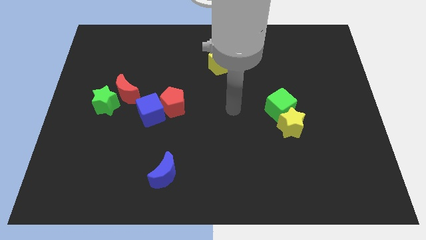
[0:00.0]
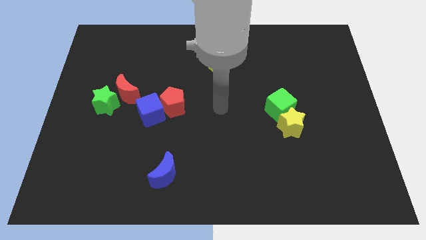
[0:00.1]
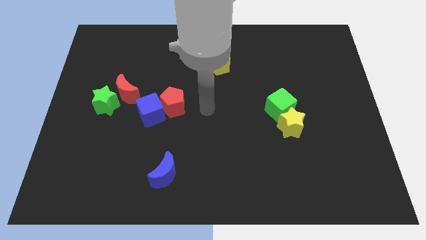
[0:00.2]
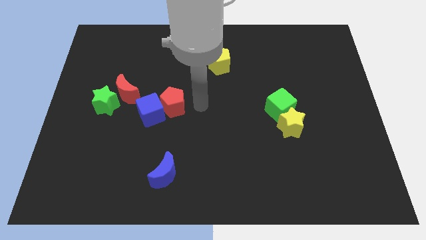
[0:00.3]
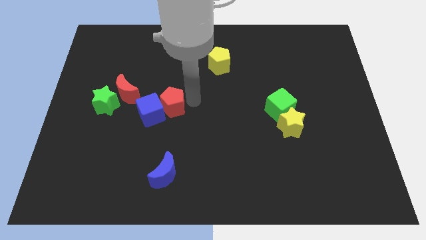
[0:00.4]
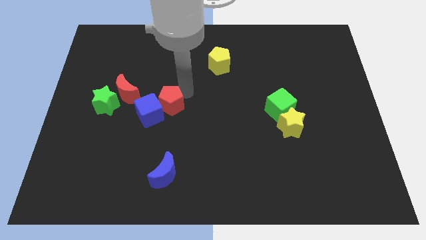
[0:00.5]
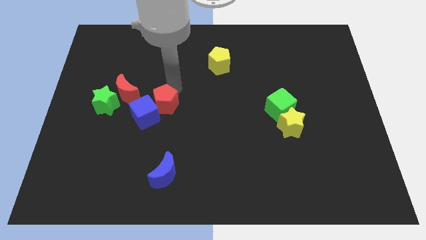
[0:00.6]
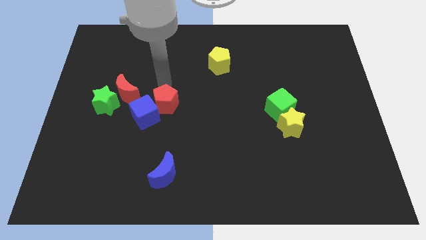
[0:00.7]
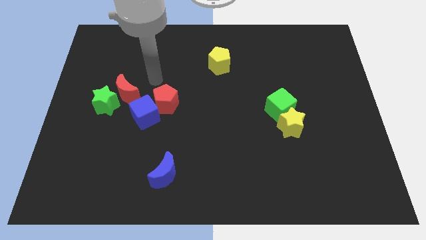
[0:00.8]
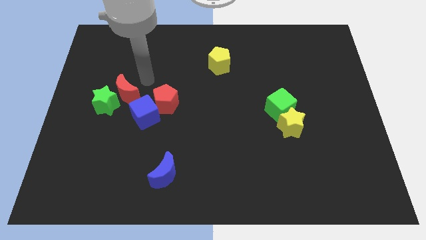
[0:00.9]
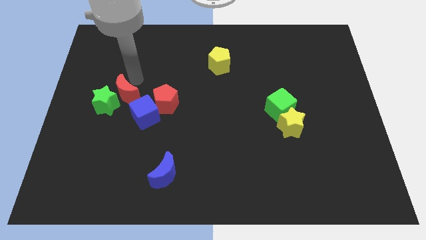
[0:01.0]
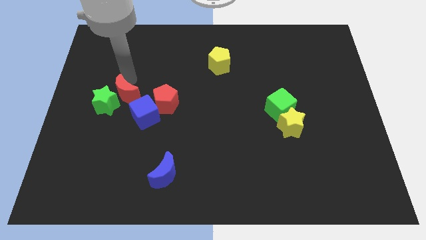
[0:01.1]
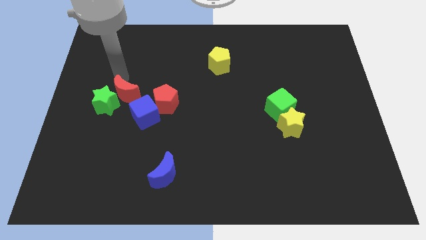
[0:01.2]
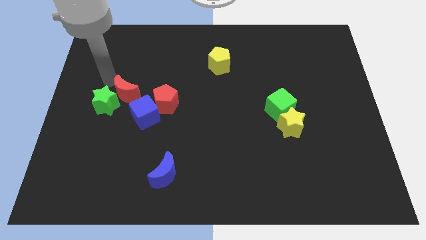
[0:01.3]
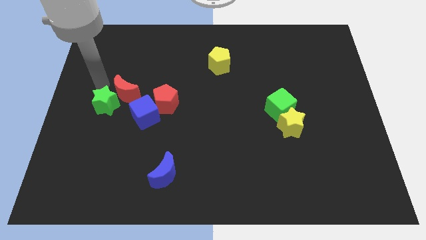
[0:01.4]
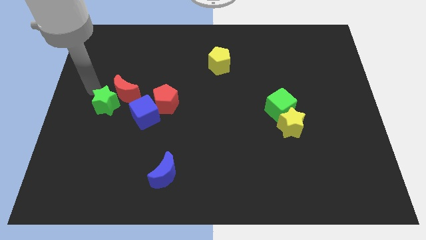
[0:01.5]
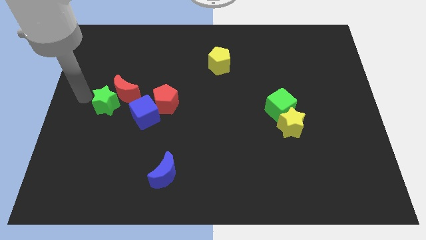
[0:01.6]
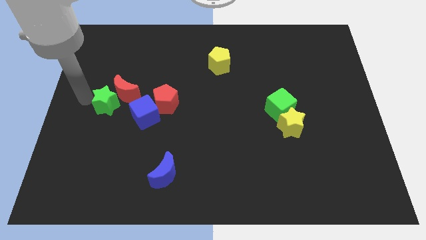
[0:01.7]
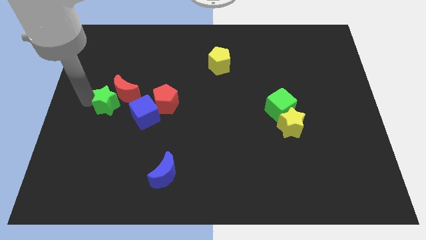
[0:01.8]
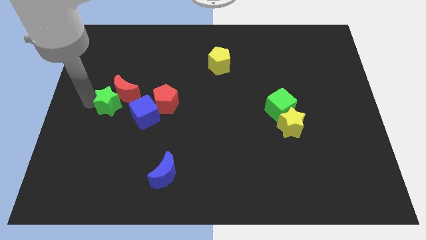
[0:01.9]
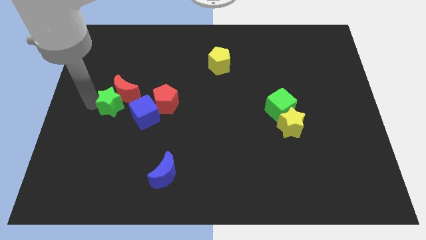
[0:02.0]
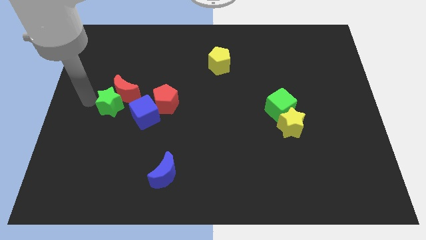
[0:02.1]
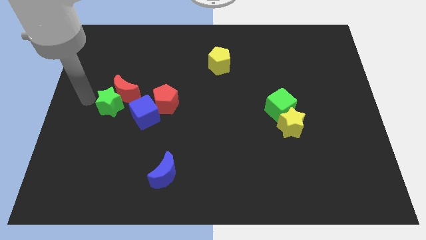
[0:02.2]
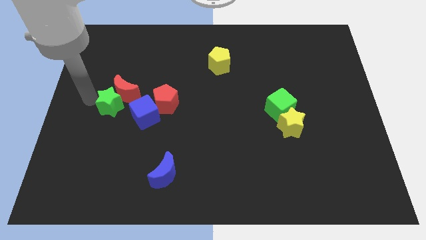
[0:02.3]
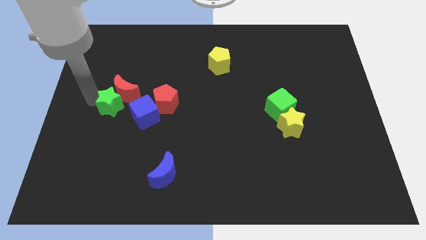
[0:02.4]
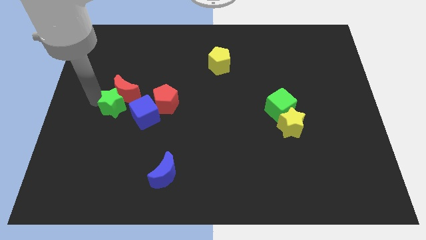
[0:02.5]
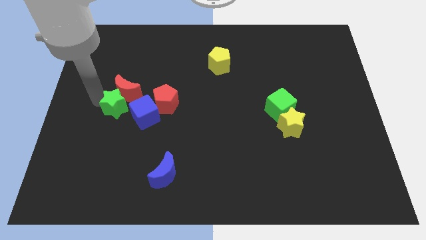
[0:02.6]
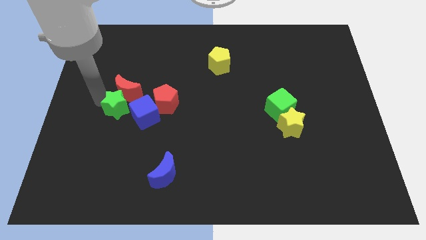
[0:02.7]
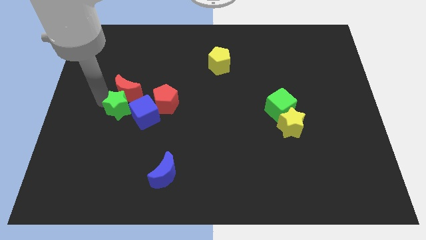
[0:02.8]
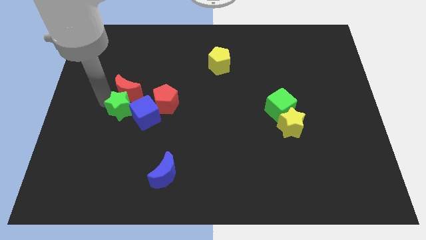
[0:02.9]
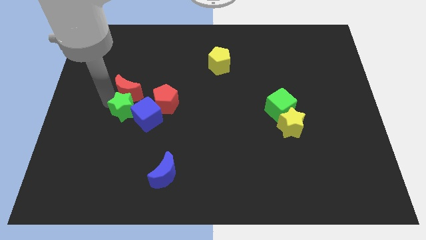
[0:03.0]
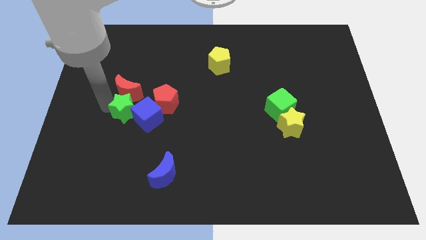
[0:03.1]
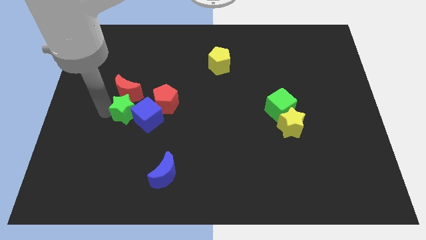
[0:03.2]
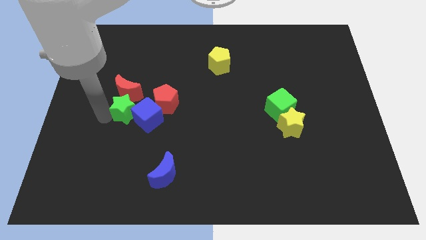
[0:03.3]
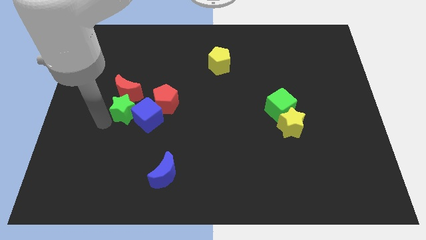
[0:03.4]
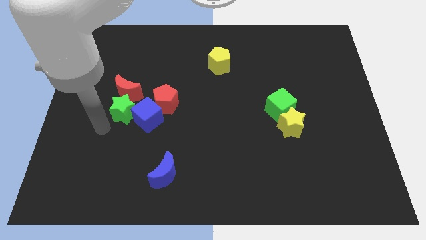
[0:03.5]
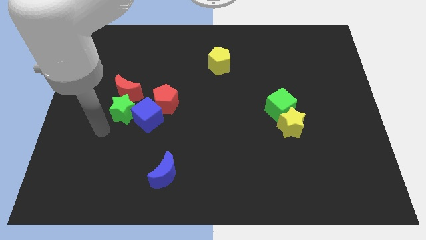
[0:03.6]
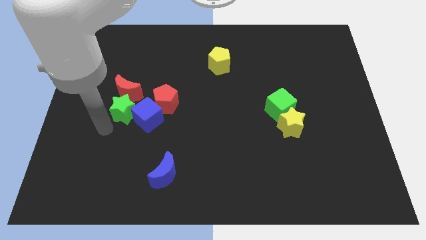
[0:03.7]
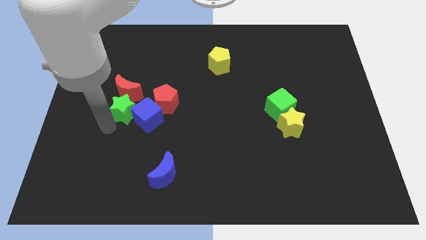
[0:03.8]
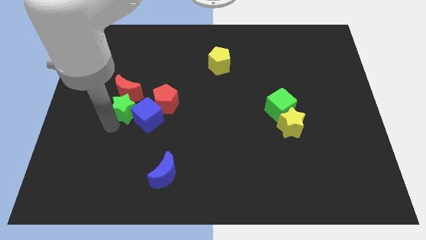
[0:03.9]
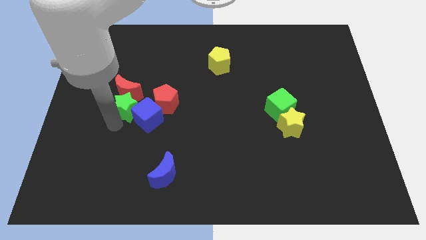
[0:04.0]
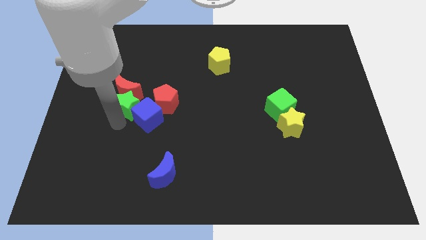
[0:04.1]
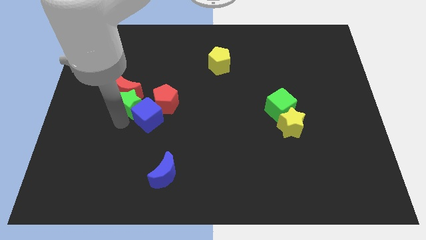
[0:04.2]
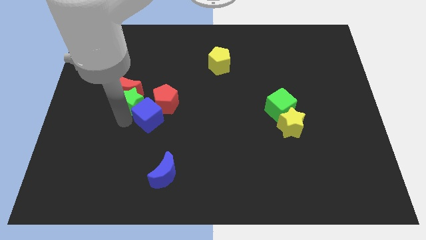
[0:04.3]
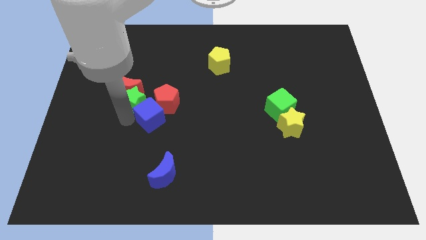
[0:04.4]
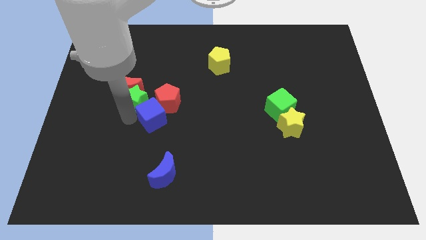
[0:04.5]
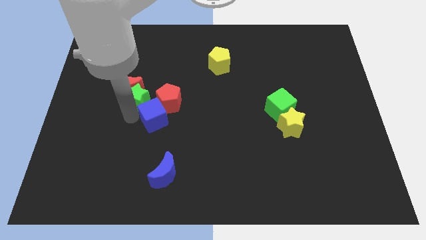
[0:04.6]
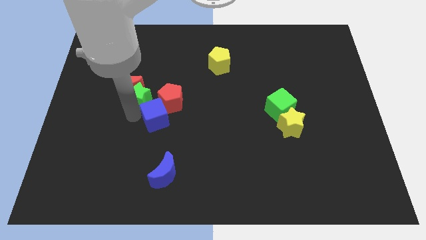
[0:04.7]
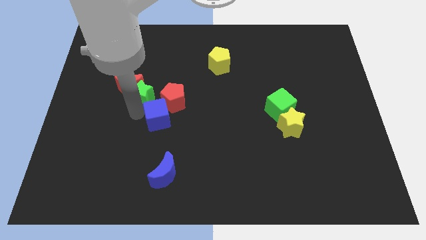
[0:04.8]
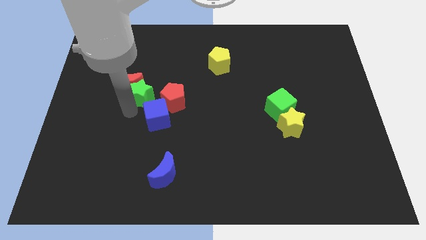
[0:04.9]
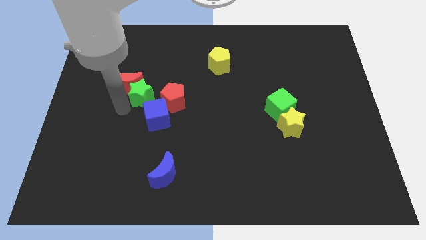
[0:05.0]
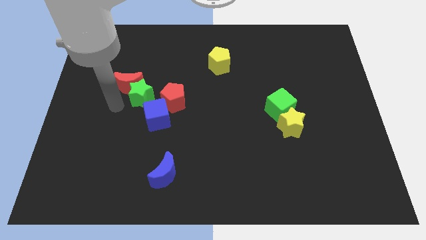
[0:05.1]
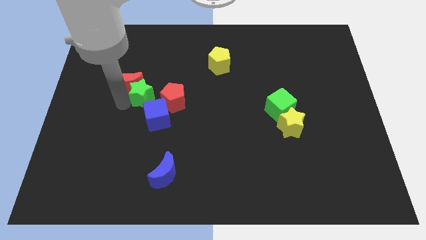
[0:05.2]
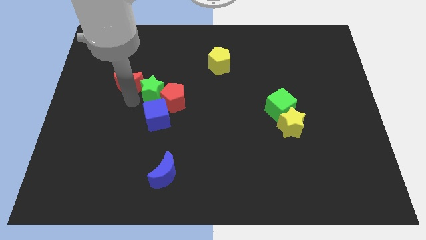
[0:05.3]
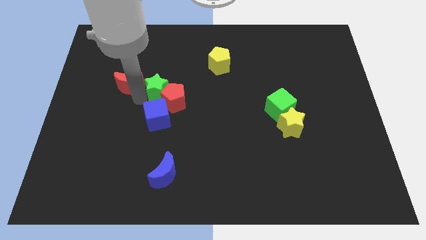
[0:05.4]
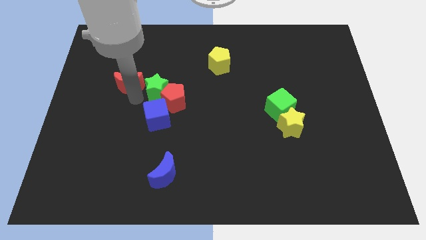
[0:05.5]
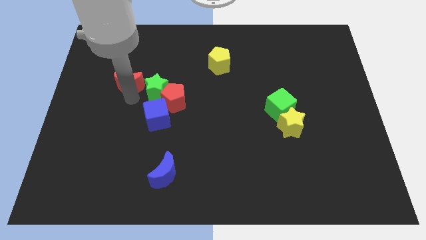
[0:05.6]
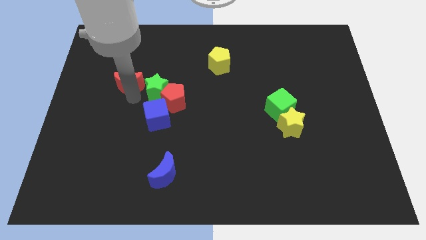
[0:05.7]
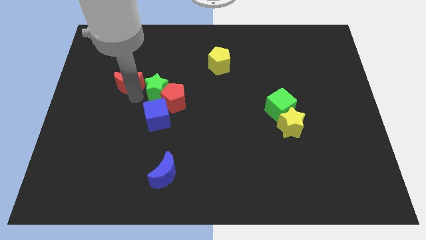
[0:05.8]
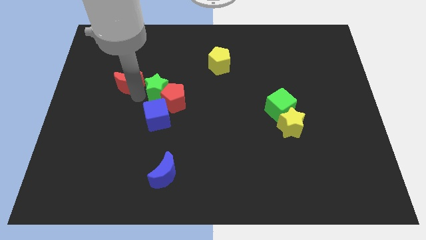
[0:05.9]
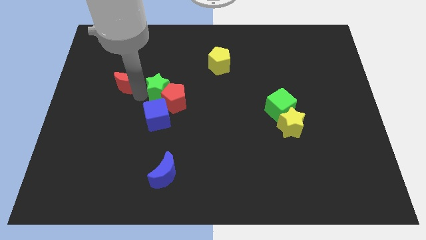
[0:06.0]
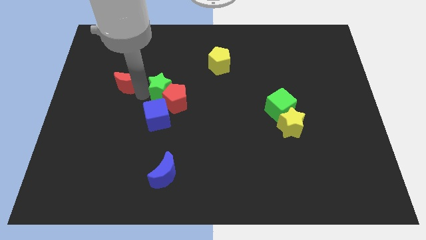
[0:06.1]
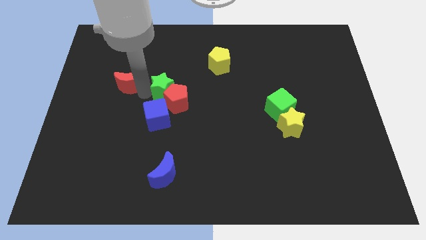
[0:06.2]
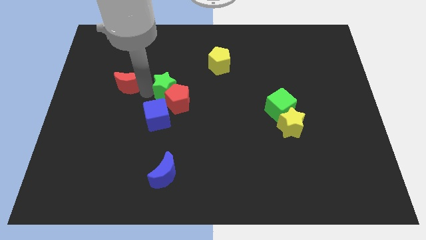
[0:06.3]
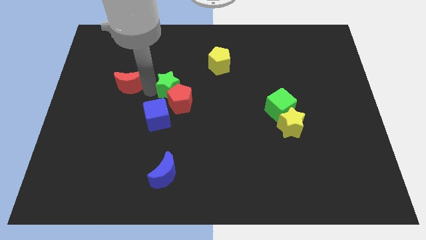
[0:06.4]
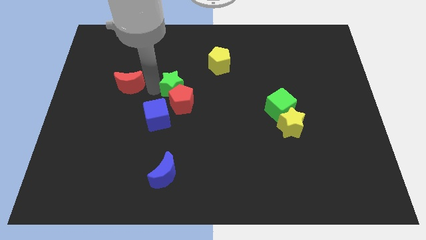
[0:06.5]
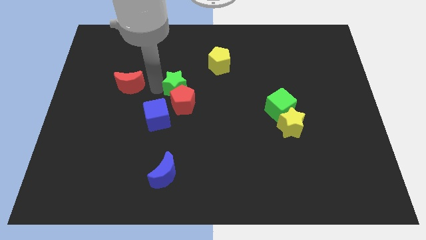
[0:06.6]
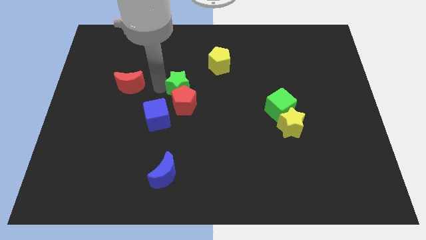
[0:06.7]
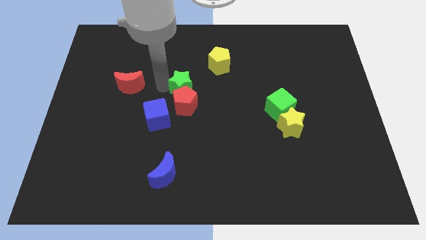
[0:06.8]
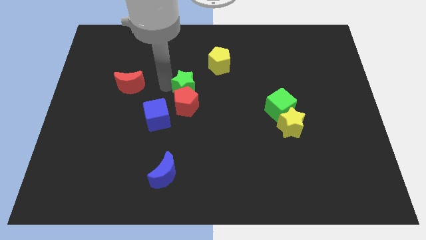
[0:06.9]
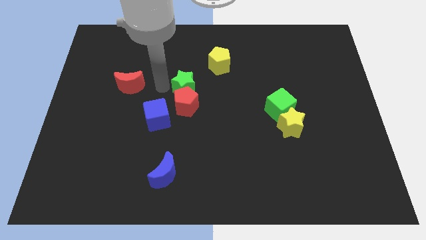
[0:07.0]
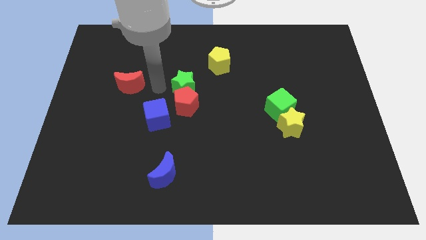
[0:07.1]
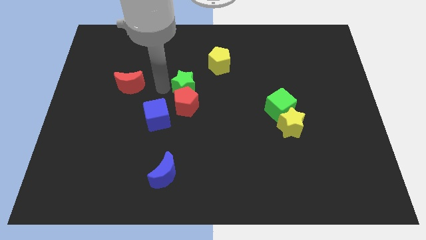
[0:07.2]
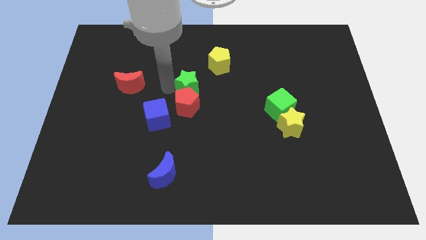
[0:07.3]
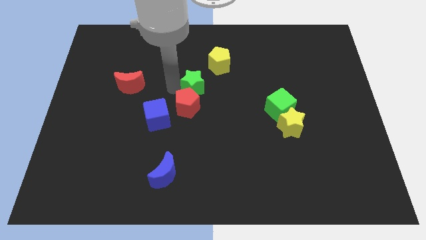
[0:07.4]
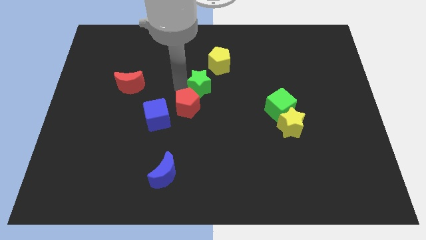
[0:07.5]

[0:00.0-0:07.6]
slide the green star to the right

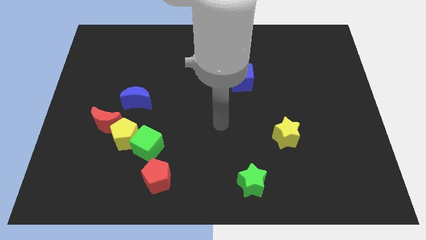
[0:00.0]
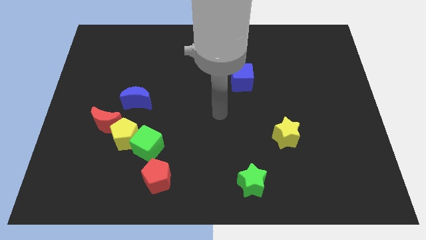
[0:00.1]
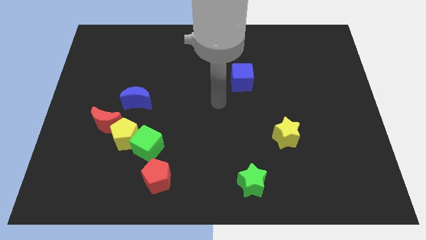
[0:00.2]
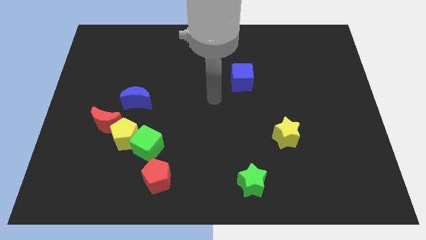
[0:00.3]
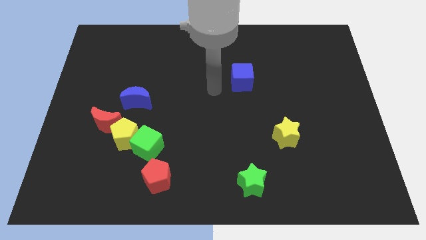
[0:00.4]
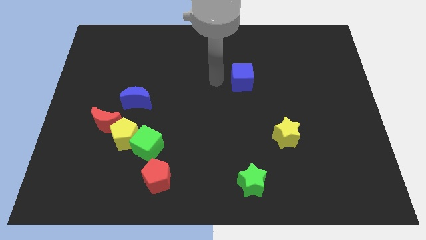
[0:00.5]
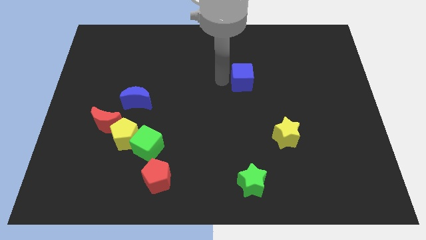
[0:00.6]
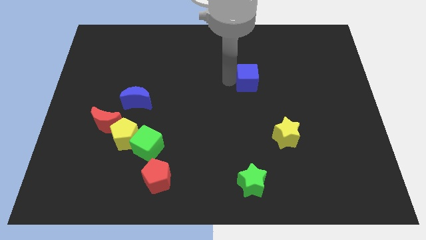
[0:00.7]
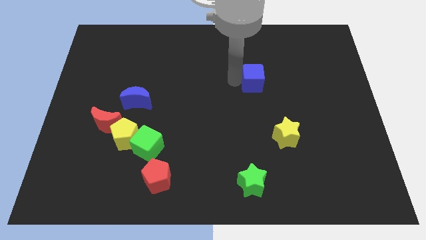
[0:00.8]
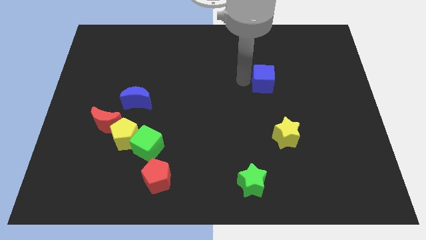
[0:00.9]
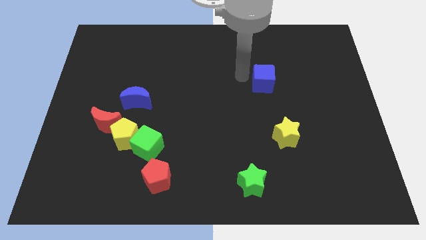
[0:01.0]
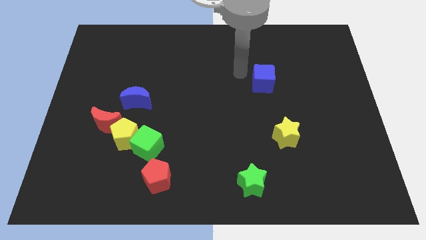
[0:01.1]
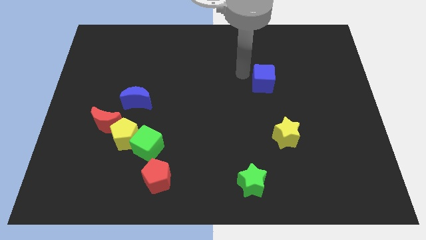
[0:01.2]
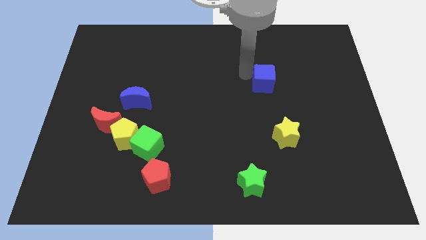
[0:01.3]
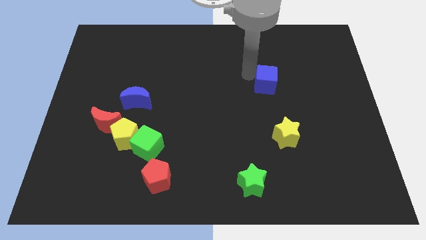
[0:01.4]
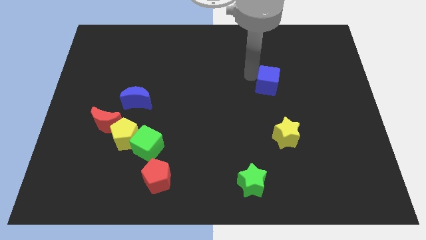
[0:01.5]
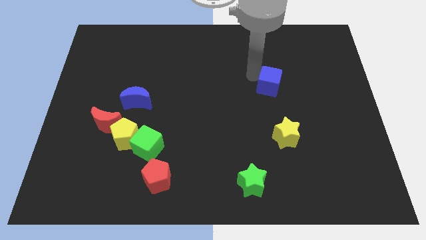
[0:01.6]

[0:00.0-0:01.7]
move the blue cube to the right somewhat
